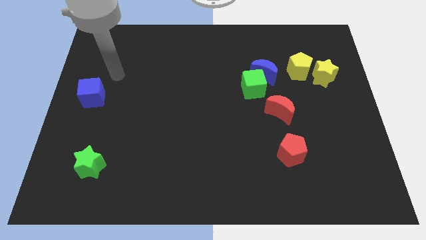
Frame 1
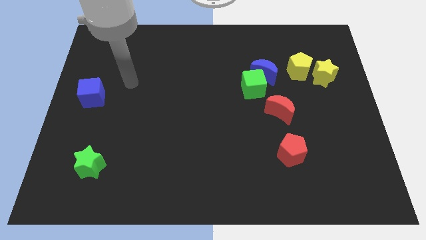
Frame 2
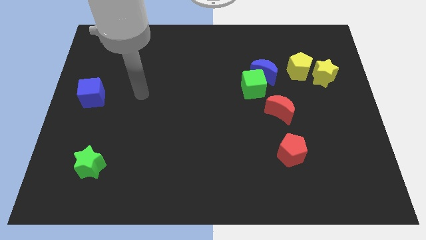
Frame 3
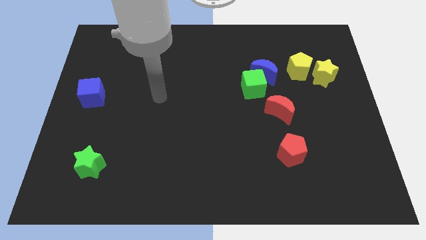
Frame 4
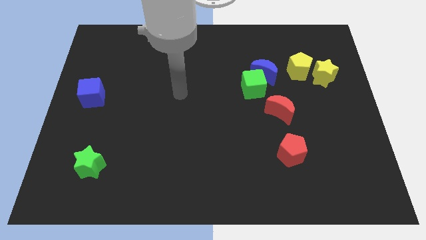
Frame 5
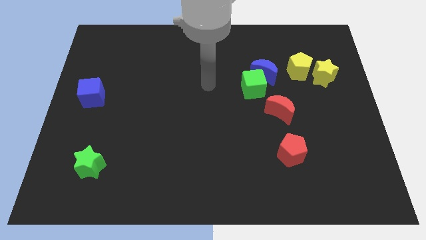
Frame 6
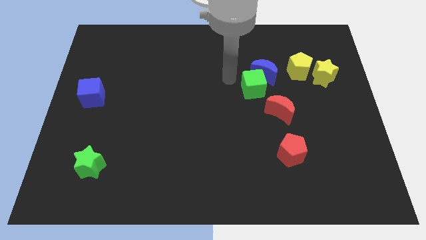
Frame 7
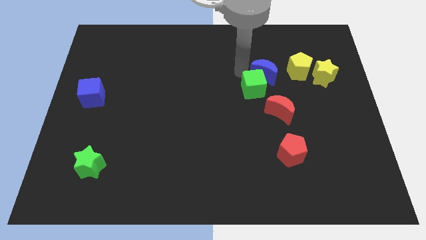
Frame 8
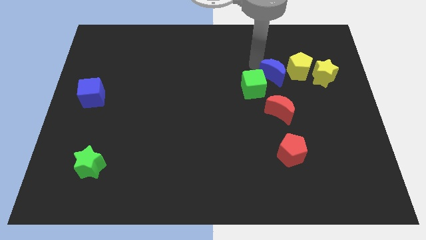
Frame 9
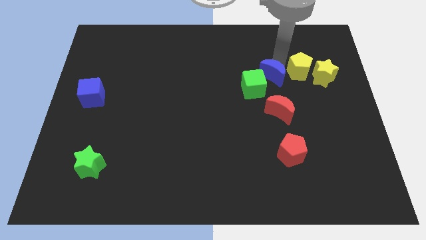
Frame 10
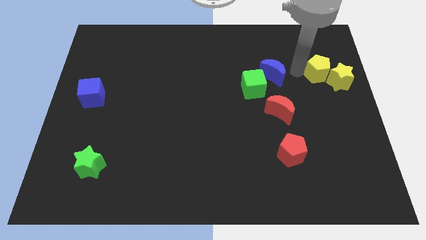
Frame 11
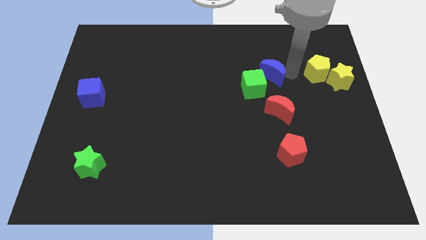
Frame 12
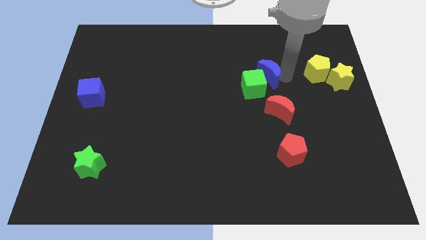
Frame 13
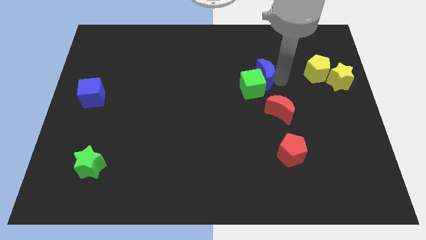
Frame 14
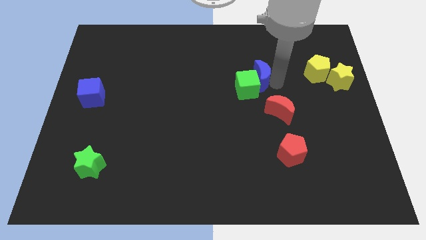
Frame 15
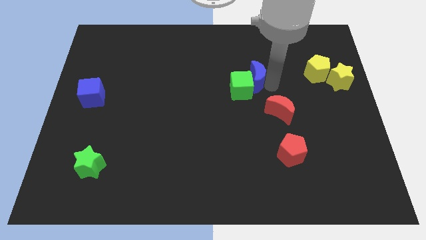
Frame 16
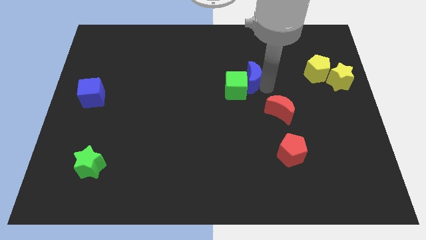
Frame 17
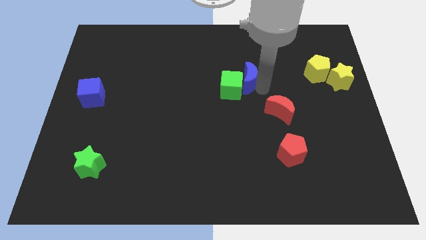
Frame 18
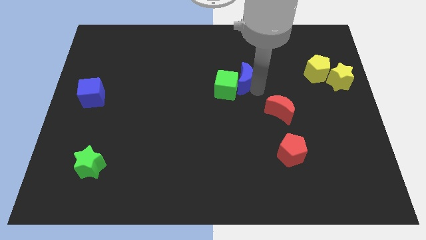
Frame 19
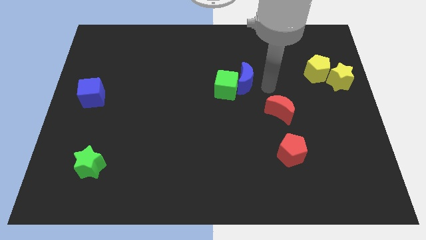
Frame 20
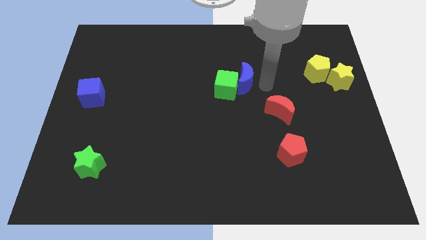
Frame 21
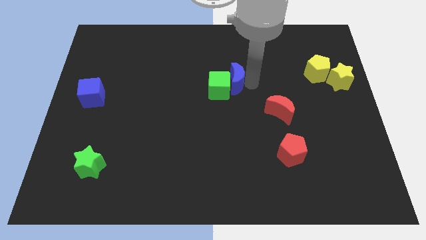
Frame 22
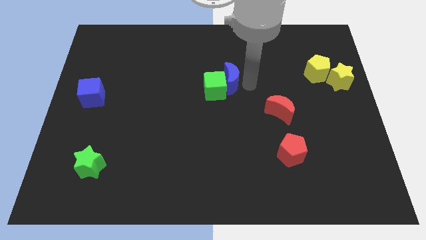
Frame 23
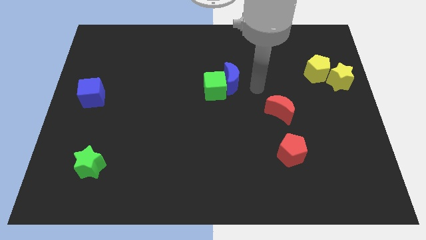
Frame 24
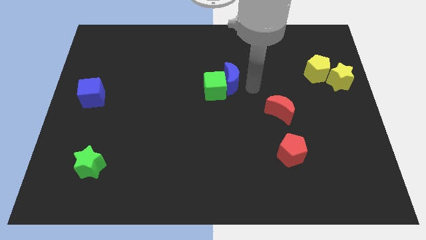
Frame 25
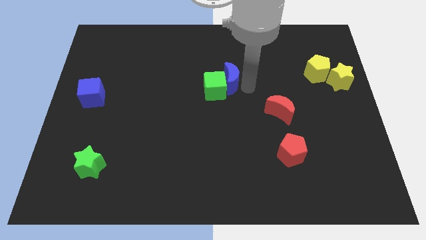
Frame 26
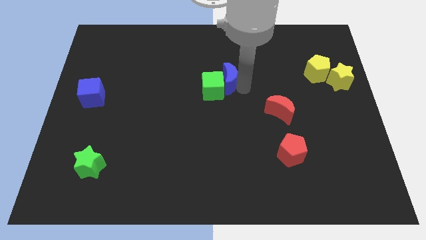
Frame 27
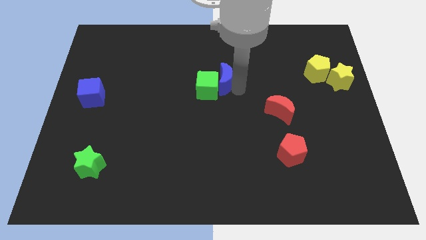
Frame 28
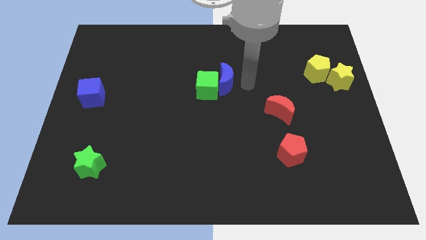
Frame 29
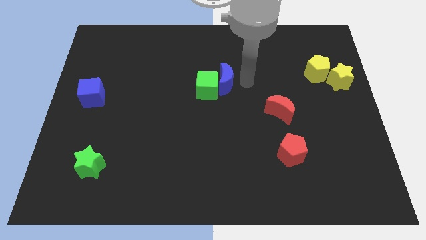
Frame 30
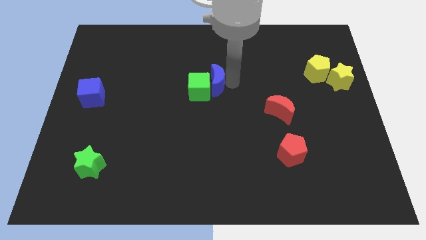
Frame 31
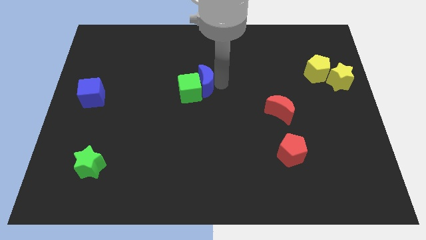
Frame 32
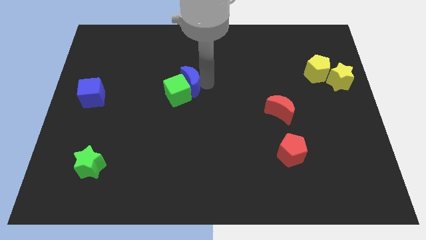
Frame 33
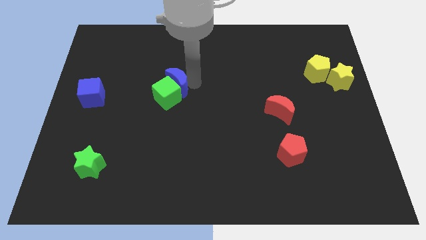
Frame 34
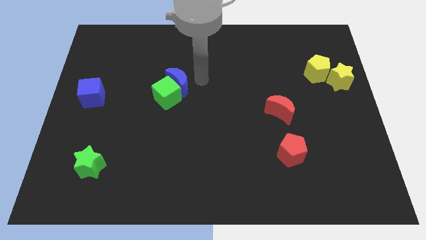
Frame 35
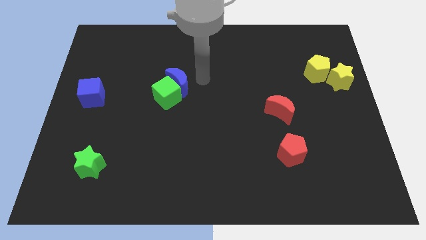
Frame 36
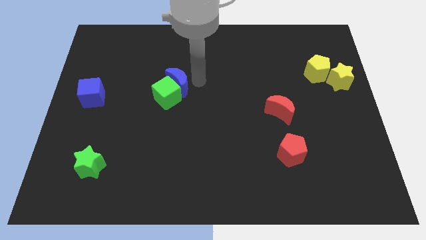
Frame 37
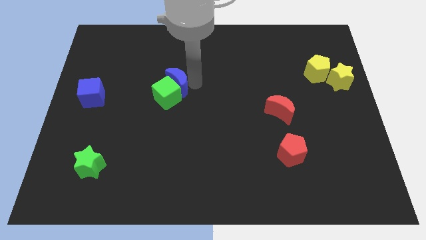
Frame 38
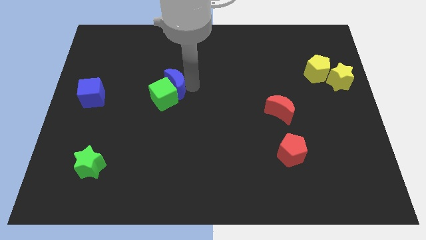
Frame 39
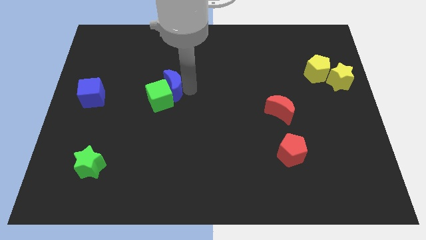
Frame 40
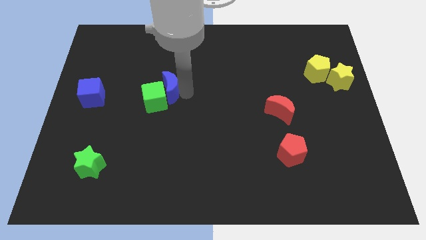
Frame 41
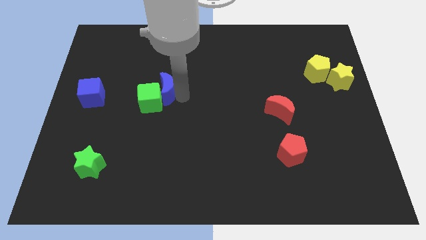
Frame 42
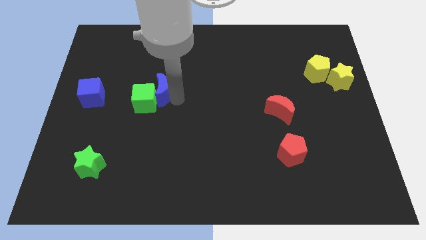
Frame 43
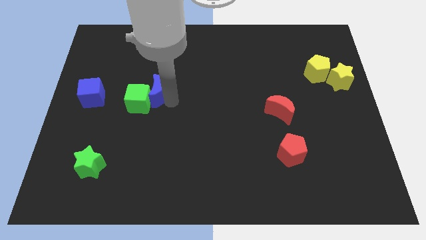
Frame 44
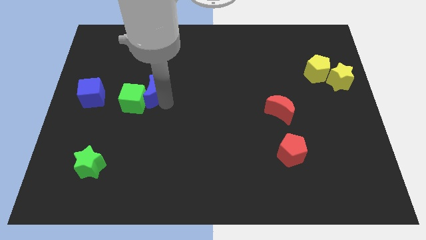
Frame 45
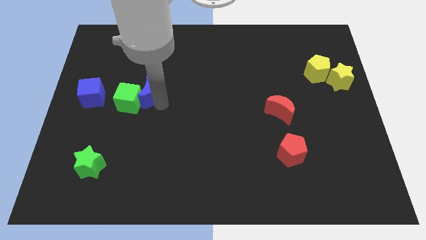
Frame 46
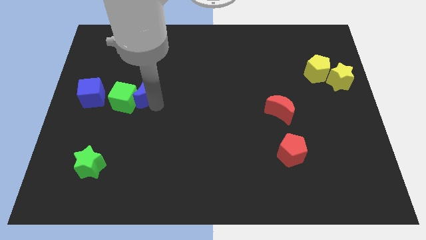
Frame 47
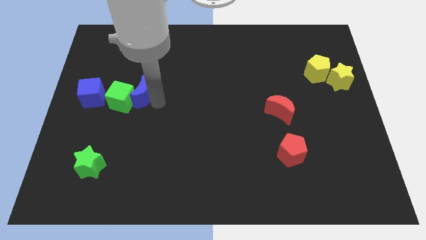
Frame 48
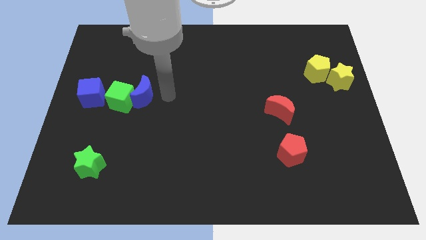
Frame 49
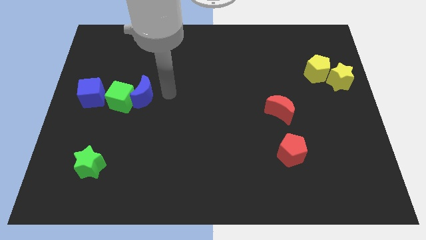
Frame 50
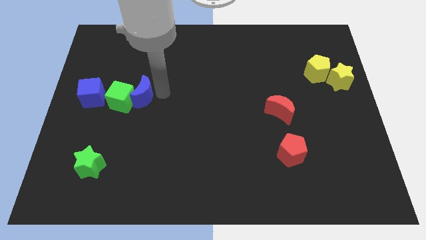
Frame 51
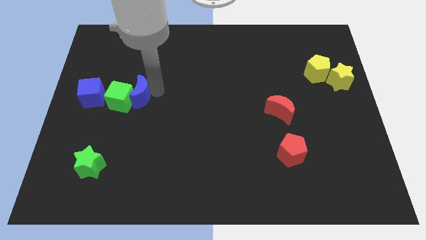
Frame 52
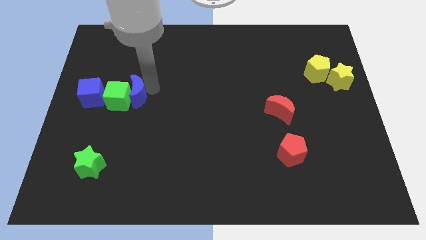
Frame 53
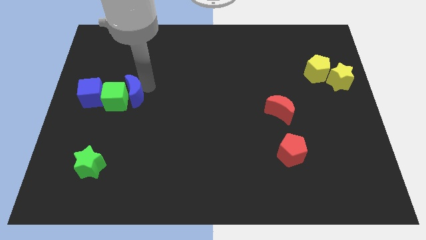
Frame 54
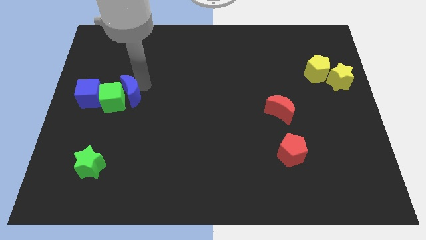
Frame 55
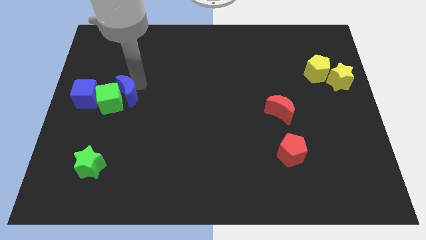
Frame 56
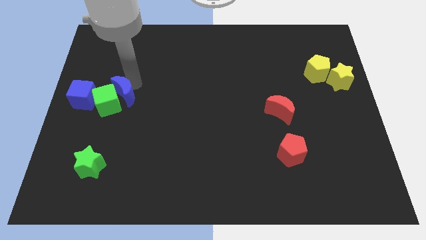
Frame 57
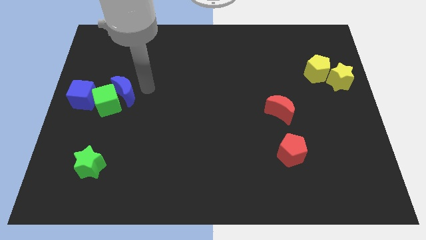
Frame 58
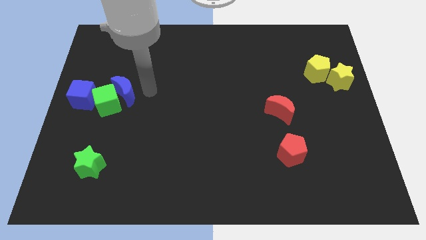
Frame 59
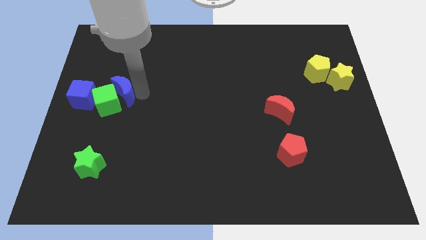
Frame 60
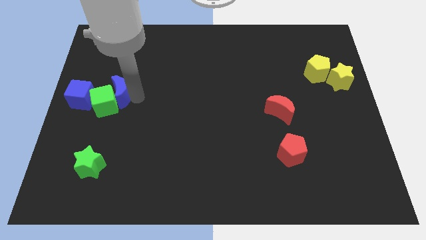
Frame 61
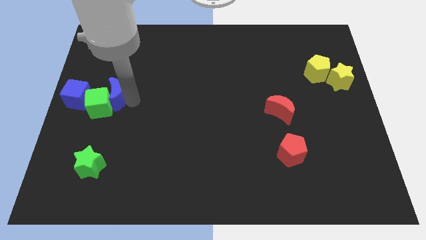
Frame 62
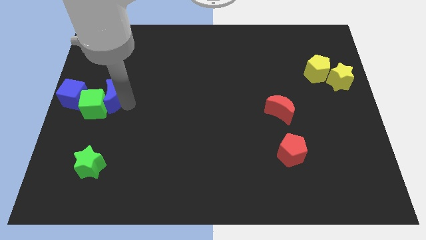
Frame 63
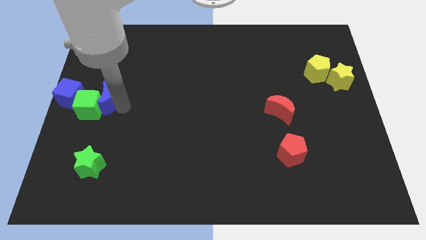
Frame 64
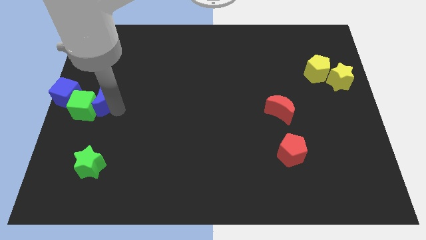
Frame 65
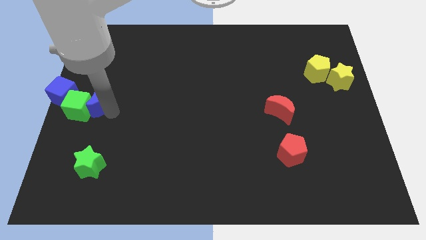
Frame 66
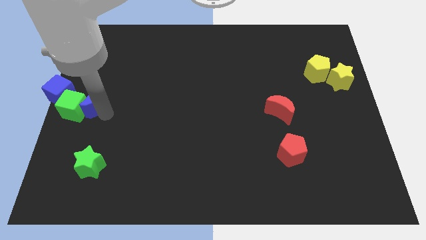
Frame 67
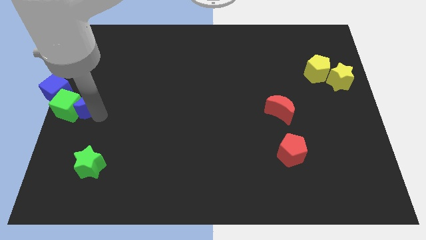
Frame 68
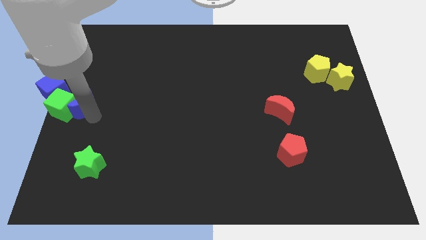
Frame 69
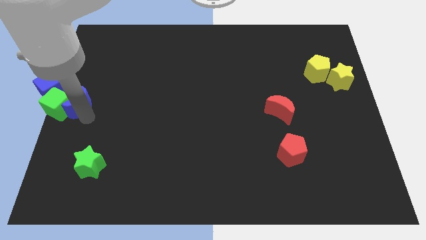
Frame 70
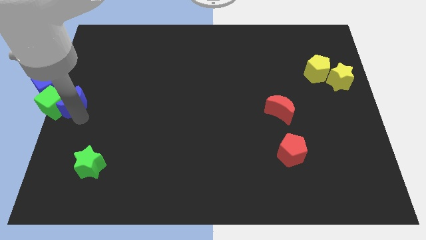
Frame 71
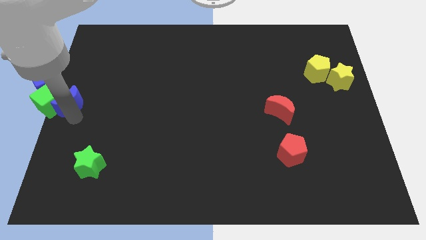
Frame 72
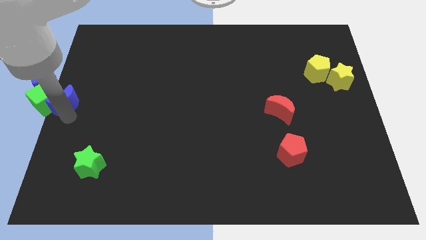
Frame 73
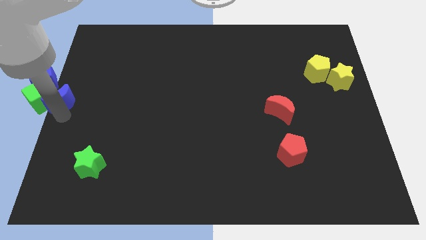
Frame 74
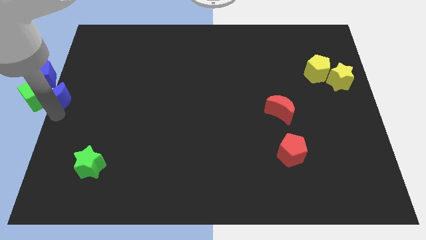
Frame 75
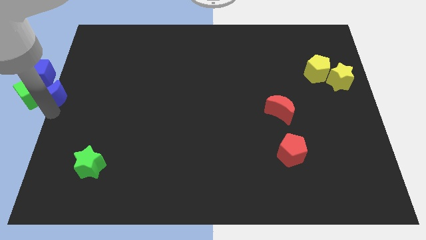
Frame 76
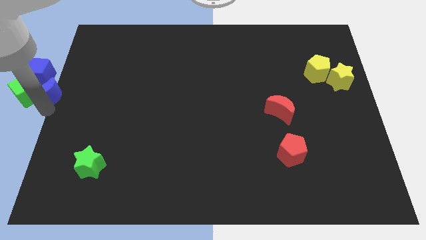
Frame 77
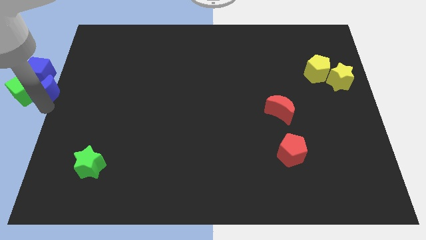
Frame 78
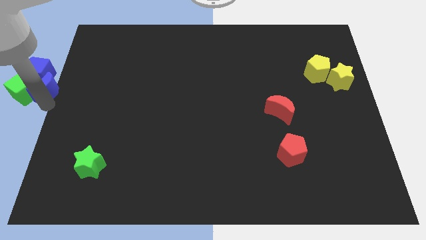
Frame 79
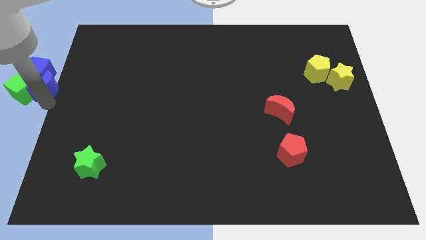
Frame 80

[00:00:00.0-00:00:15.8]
move the blue moon towards the blue cube

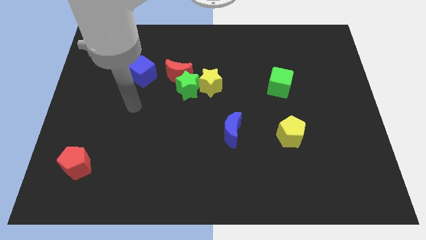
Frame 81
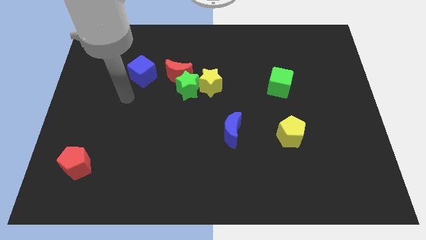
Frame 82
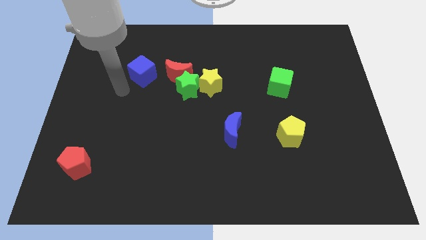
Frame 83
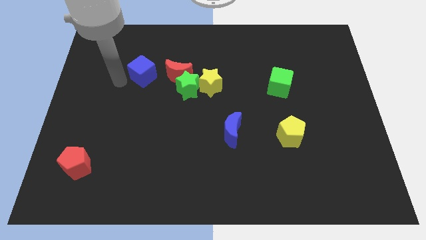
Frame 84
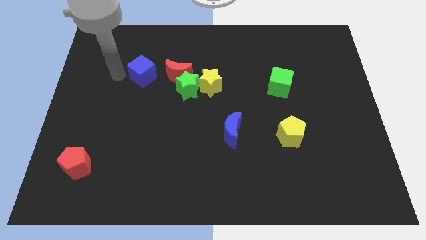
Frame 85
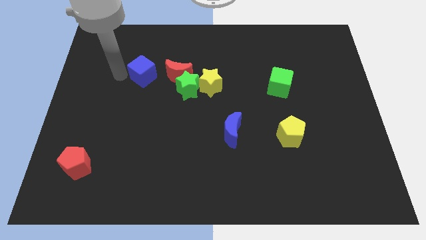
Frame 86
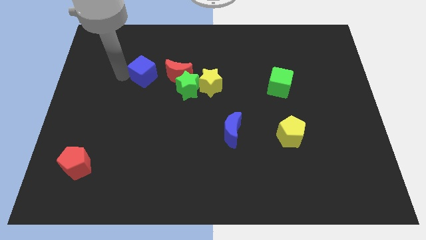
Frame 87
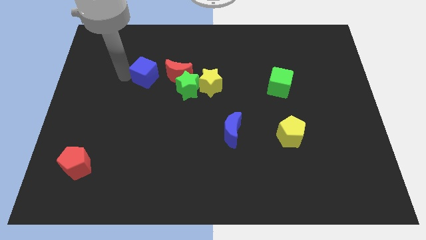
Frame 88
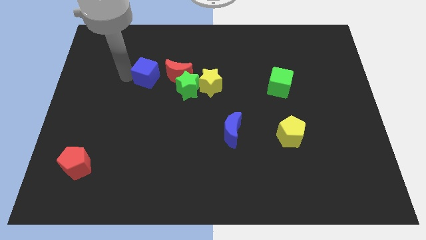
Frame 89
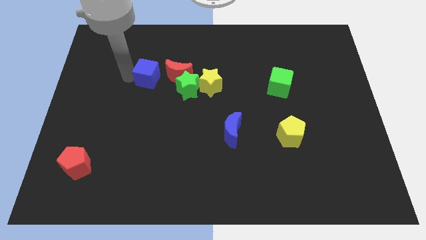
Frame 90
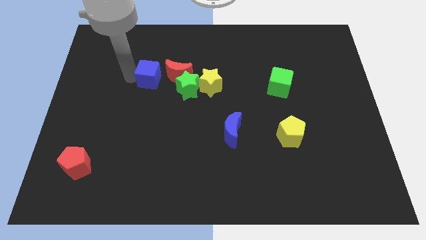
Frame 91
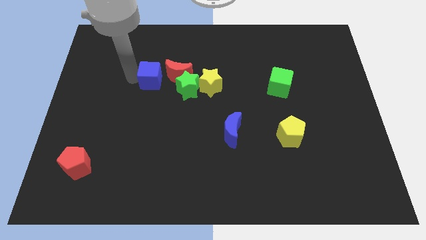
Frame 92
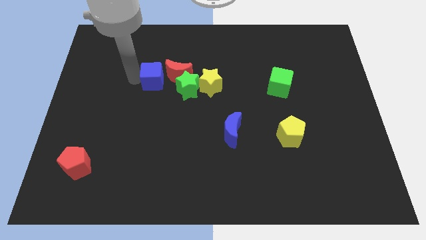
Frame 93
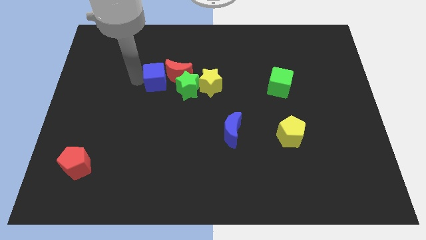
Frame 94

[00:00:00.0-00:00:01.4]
put the blue cube to the red moon
